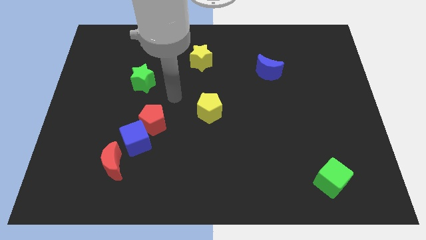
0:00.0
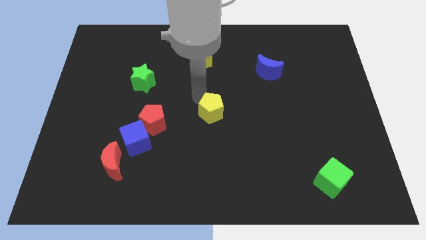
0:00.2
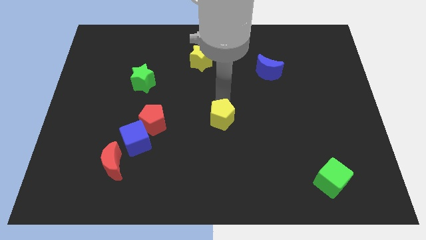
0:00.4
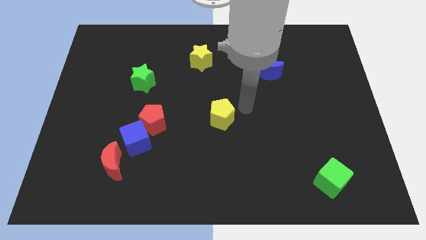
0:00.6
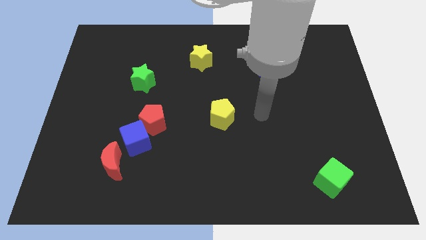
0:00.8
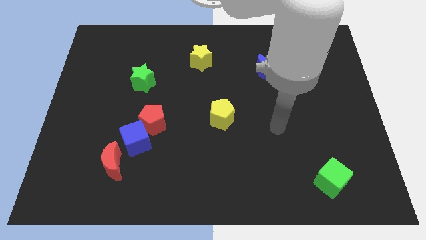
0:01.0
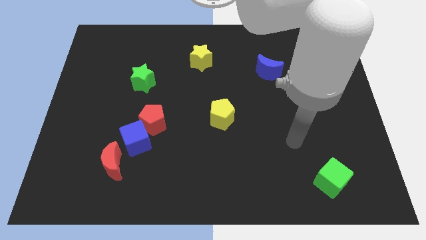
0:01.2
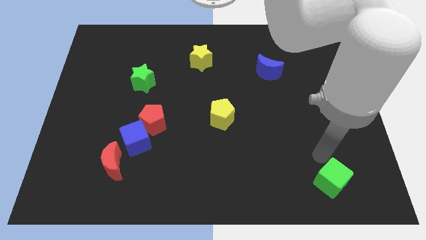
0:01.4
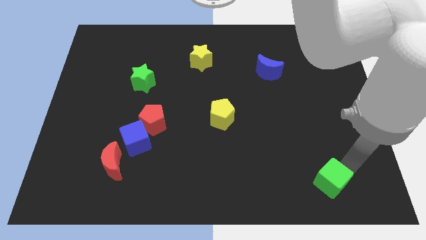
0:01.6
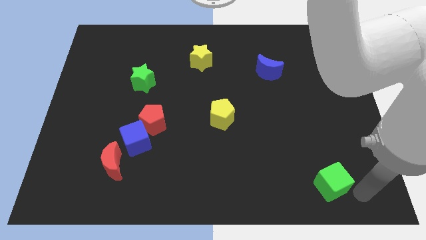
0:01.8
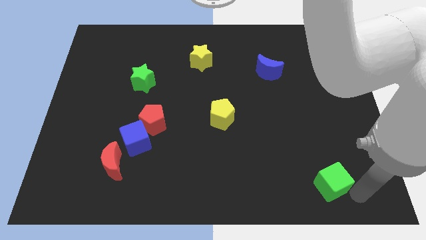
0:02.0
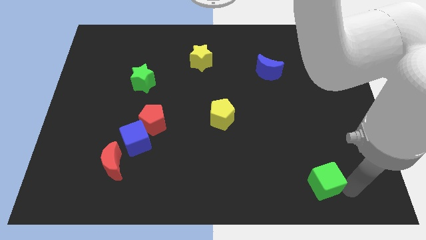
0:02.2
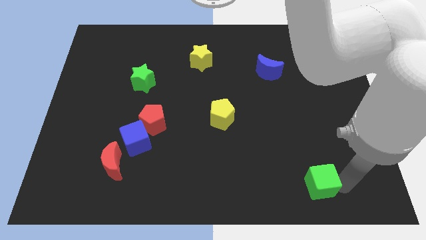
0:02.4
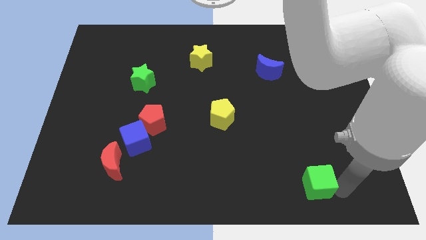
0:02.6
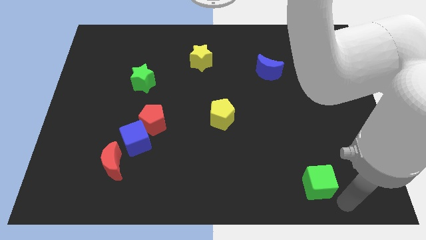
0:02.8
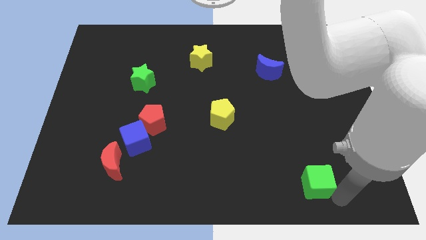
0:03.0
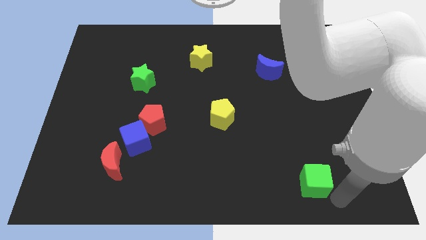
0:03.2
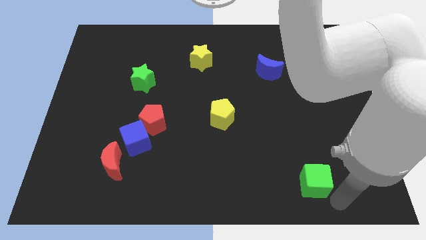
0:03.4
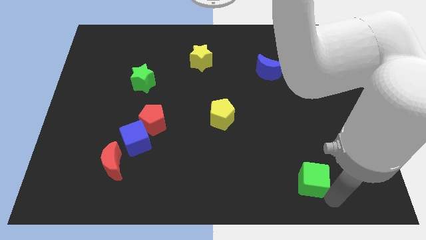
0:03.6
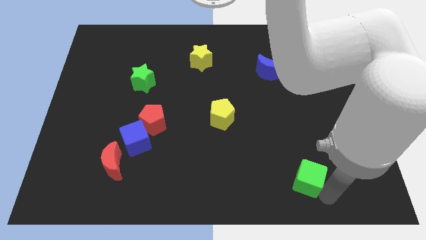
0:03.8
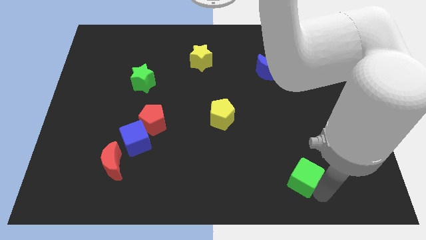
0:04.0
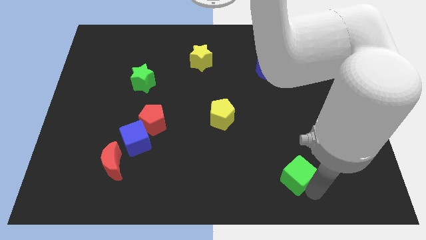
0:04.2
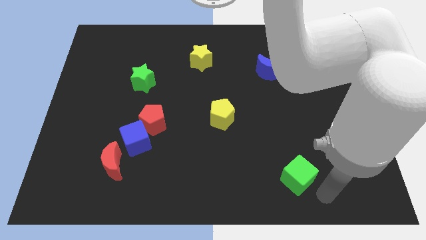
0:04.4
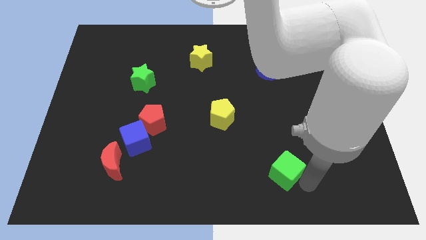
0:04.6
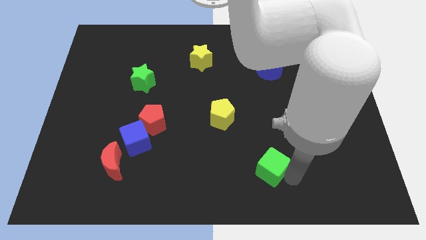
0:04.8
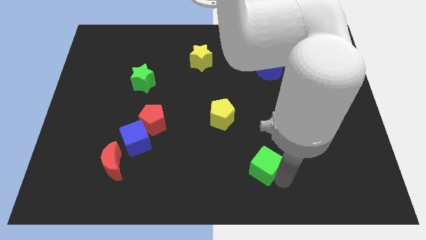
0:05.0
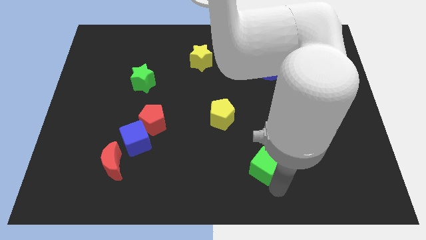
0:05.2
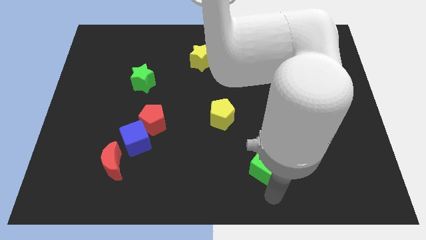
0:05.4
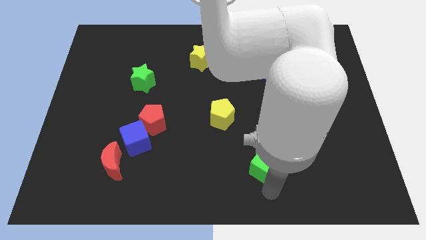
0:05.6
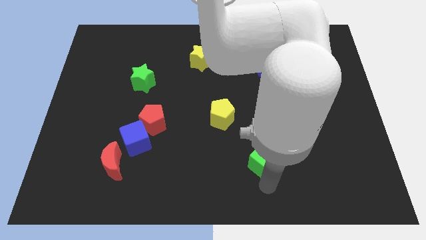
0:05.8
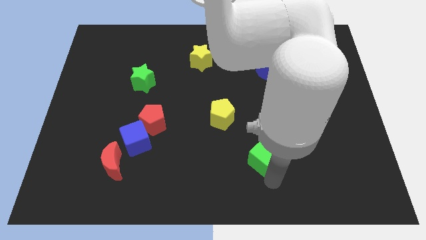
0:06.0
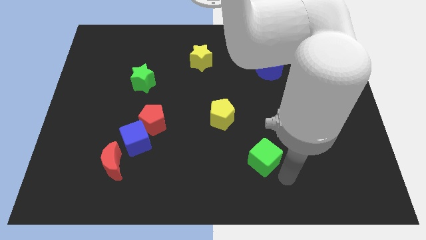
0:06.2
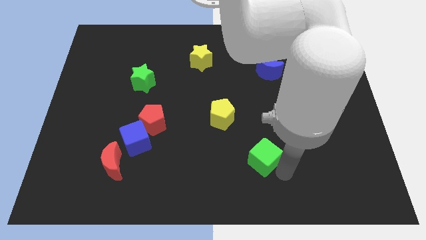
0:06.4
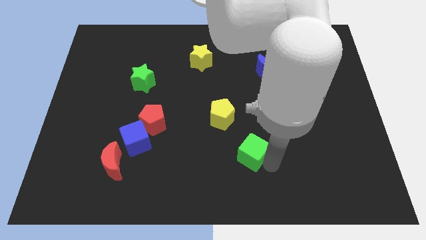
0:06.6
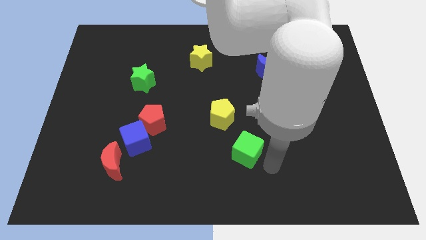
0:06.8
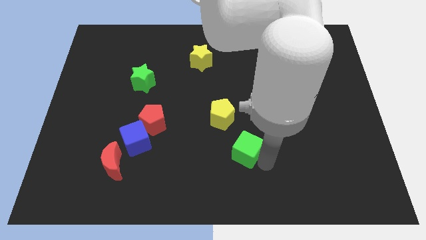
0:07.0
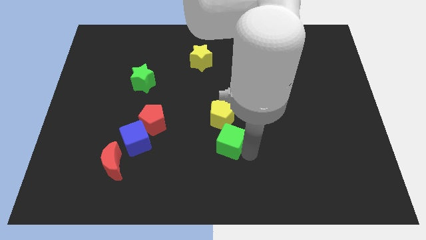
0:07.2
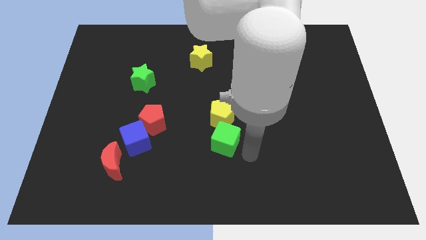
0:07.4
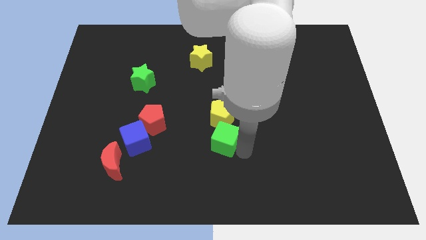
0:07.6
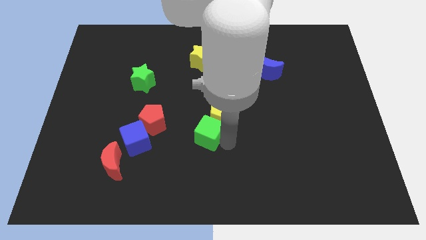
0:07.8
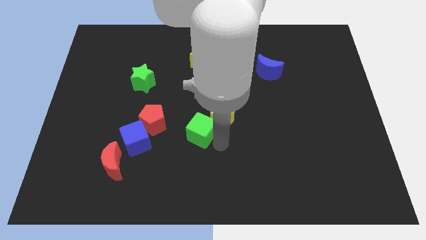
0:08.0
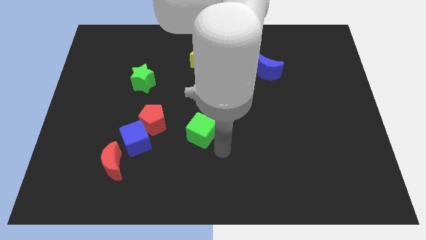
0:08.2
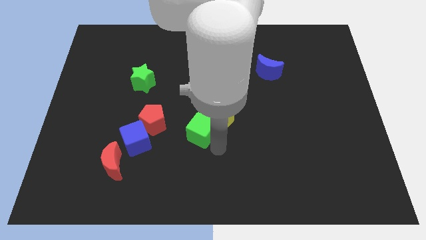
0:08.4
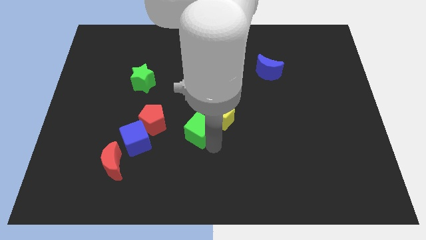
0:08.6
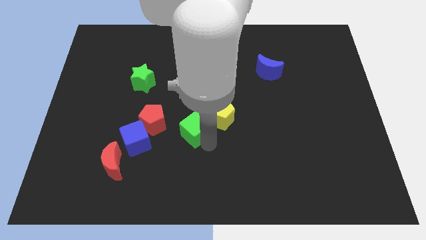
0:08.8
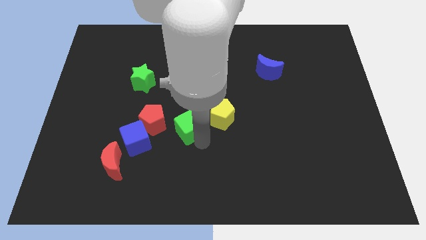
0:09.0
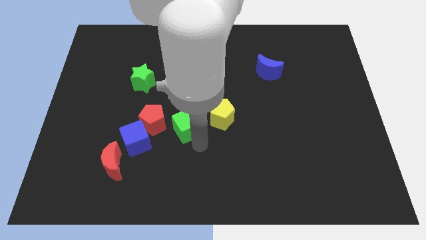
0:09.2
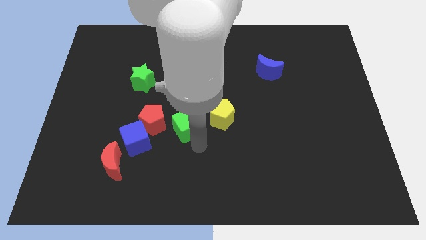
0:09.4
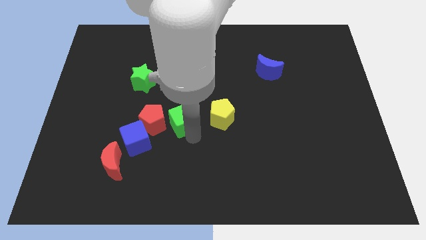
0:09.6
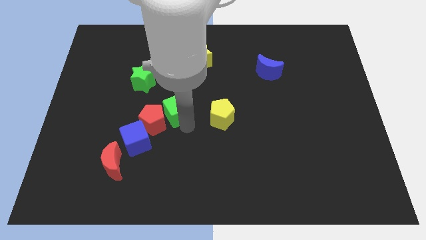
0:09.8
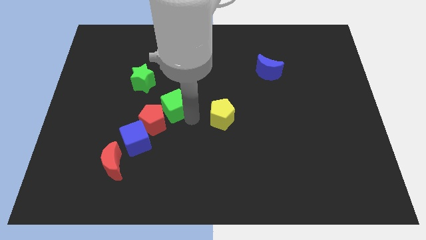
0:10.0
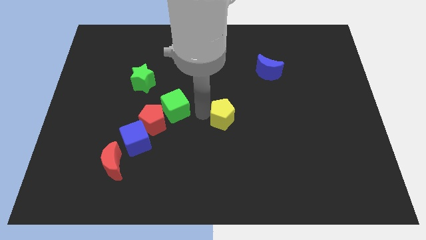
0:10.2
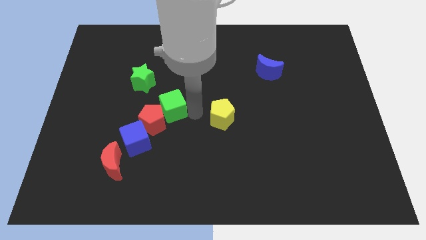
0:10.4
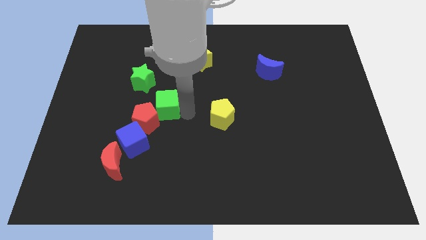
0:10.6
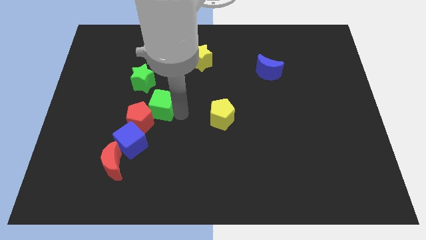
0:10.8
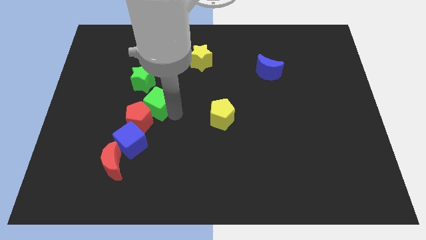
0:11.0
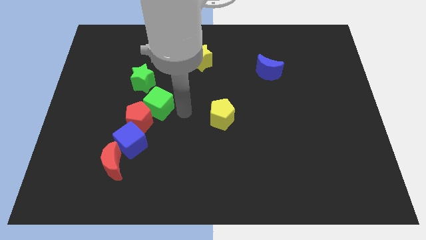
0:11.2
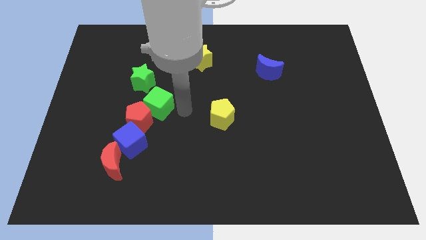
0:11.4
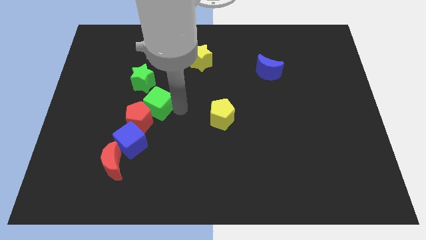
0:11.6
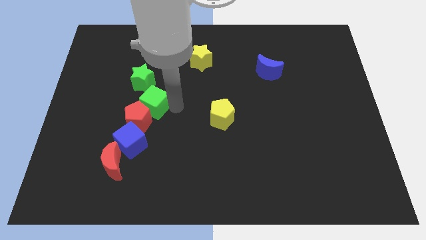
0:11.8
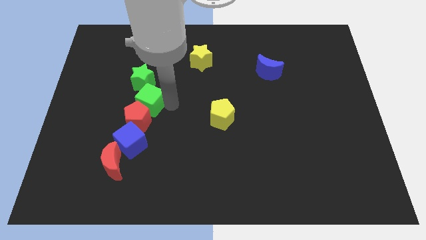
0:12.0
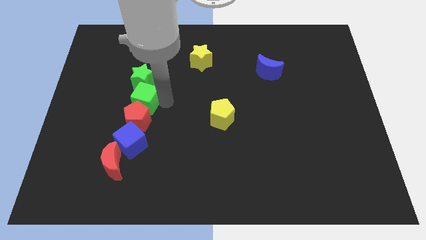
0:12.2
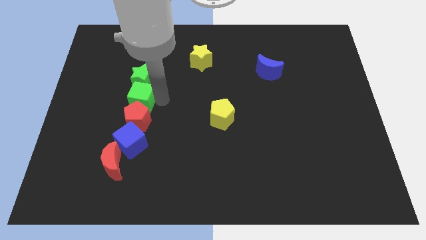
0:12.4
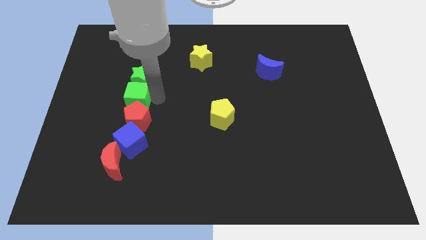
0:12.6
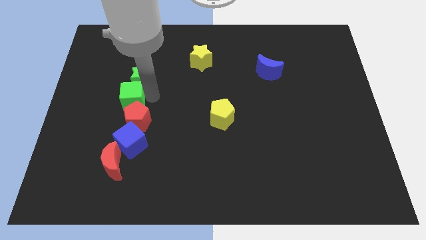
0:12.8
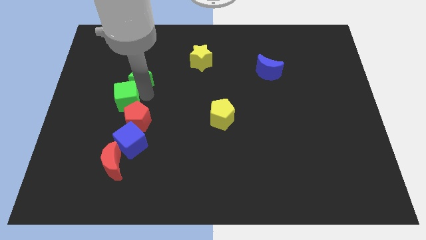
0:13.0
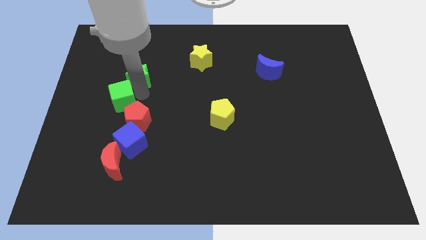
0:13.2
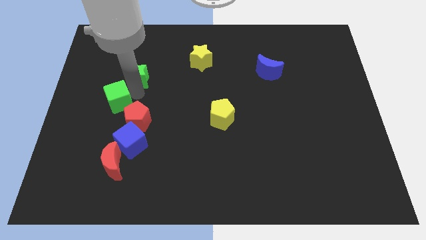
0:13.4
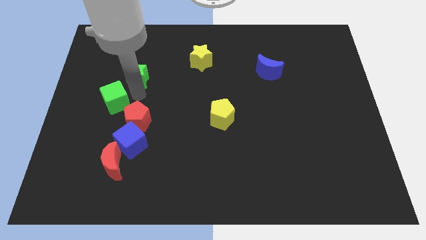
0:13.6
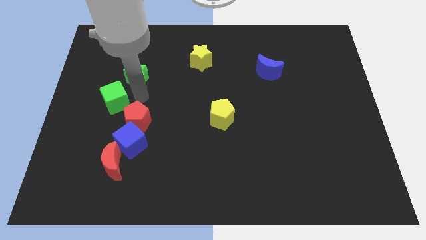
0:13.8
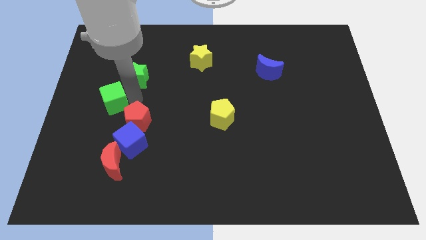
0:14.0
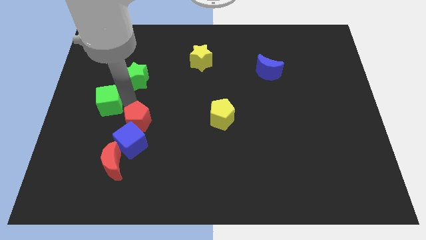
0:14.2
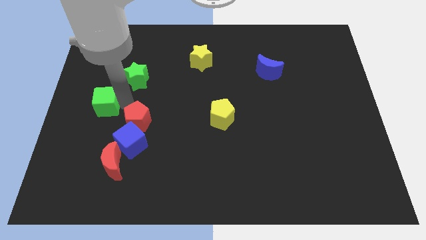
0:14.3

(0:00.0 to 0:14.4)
slide the green cube to the left side
